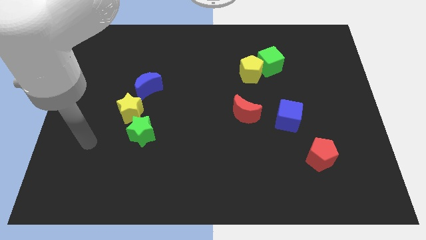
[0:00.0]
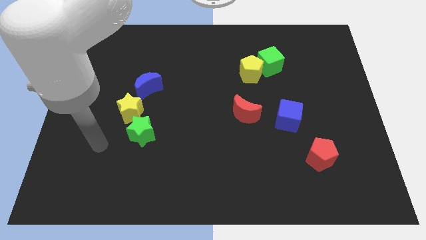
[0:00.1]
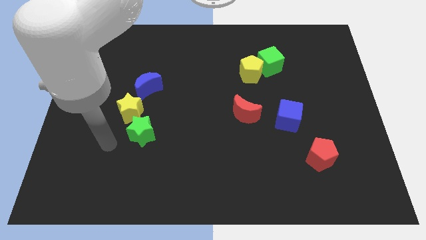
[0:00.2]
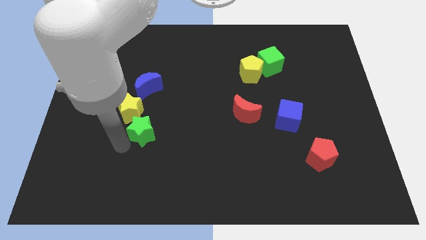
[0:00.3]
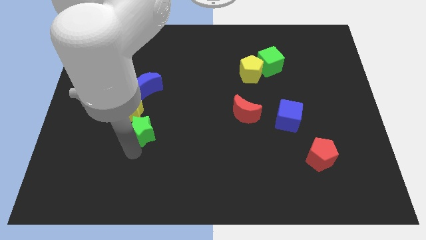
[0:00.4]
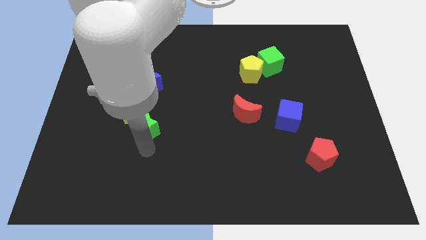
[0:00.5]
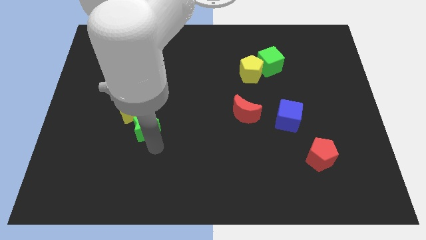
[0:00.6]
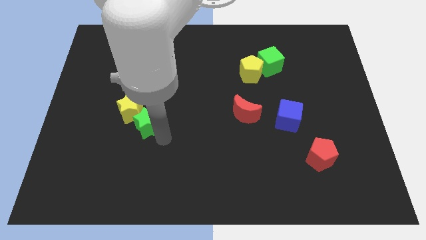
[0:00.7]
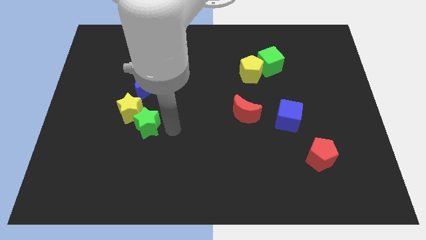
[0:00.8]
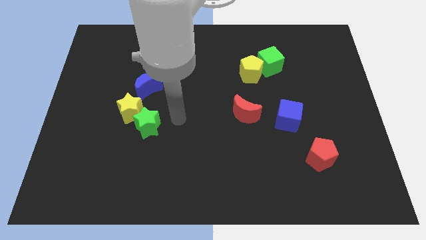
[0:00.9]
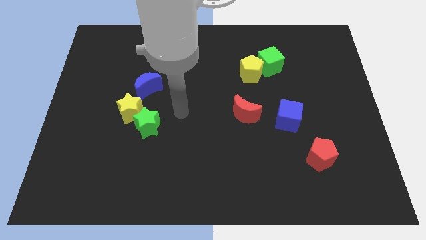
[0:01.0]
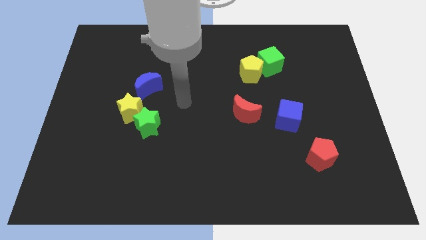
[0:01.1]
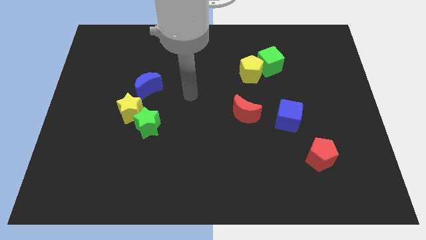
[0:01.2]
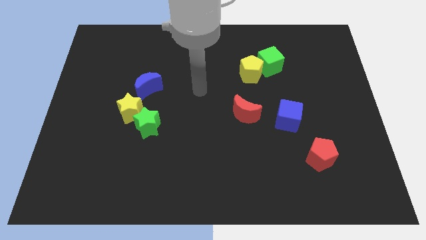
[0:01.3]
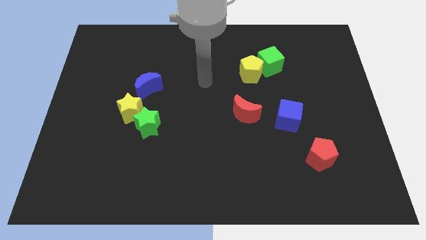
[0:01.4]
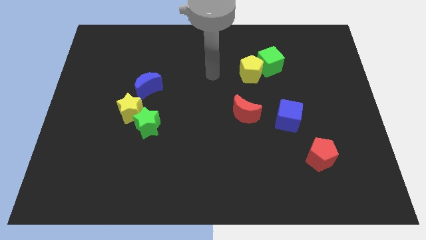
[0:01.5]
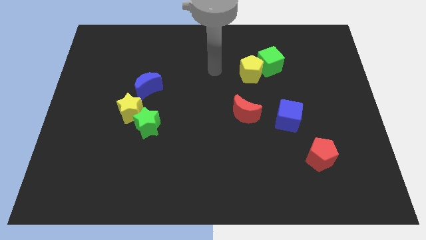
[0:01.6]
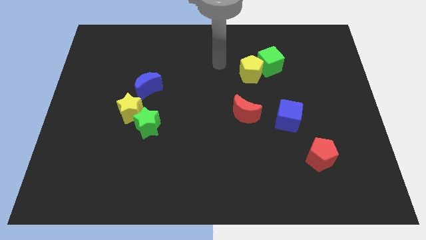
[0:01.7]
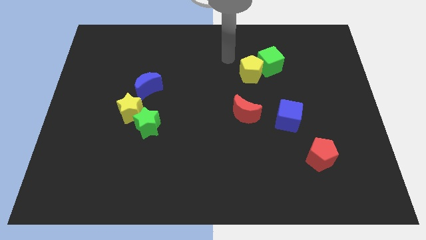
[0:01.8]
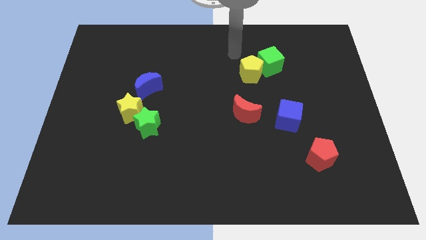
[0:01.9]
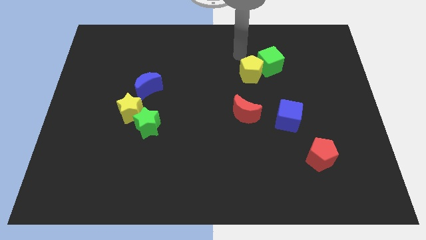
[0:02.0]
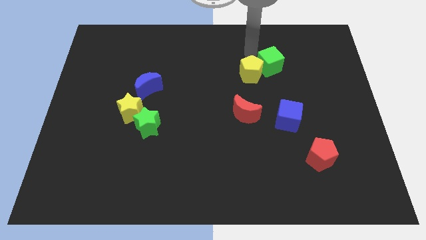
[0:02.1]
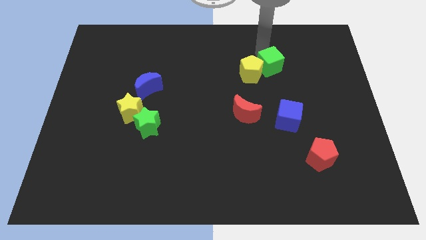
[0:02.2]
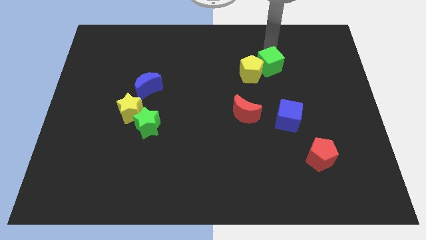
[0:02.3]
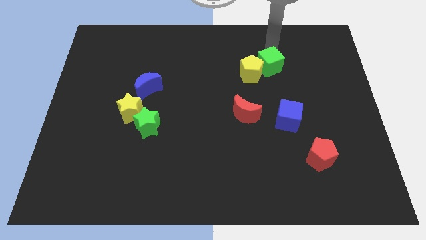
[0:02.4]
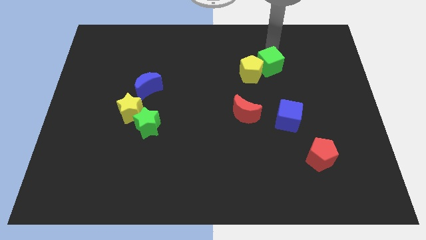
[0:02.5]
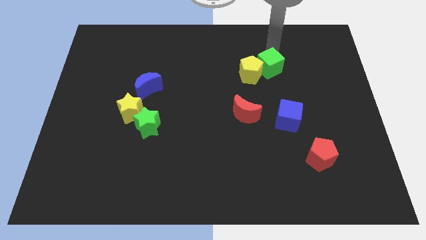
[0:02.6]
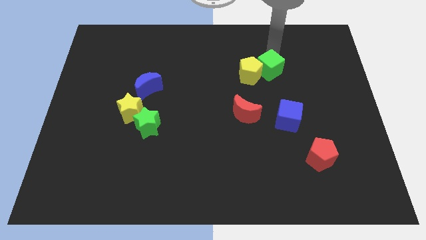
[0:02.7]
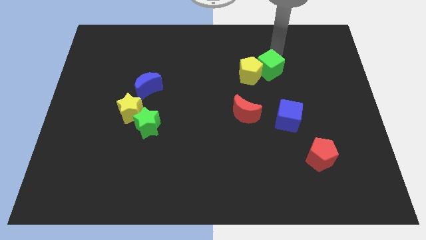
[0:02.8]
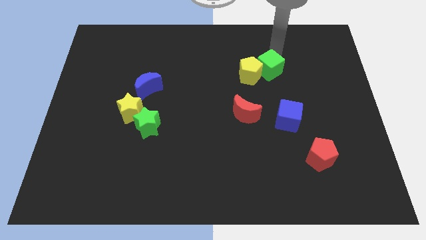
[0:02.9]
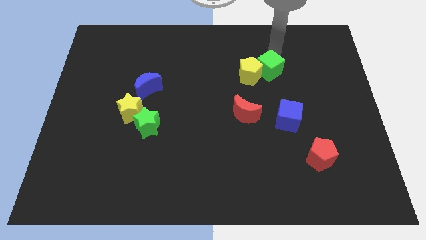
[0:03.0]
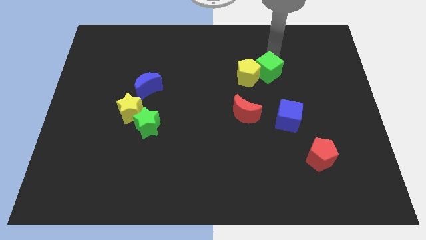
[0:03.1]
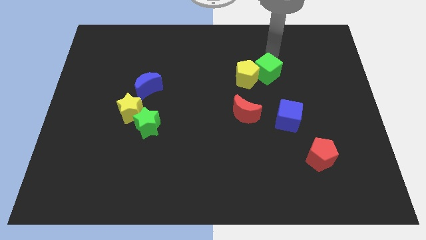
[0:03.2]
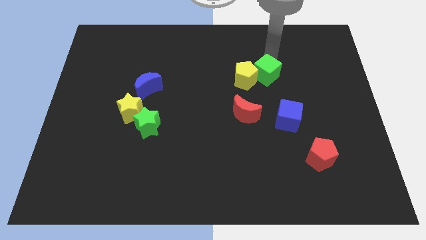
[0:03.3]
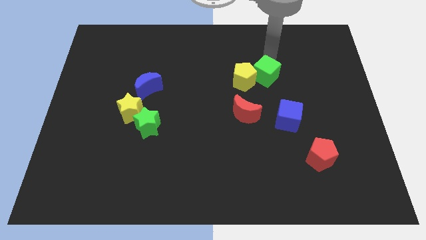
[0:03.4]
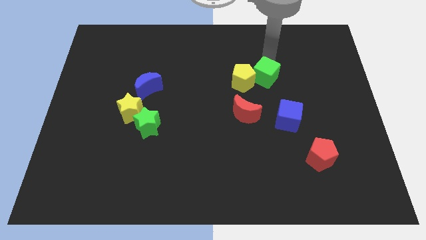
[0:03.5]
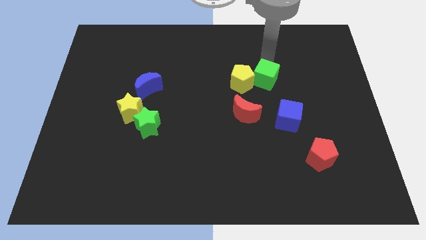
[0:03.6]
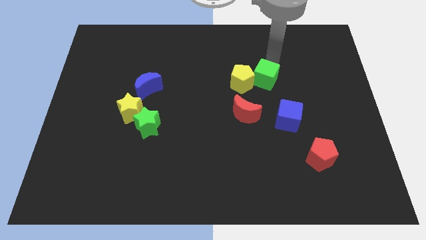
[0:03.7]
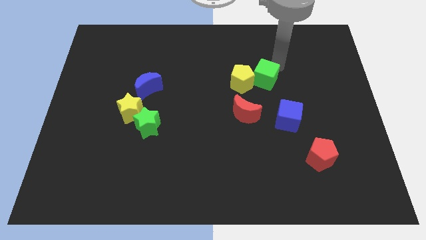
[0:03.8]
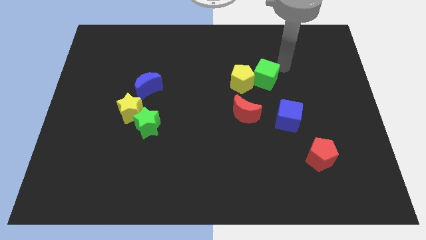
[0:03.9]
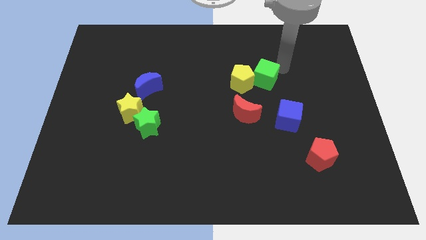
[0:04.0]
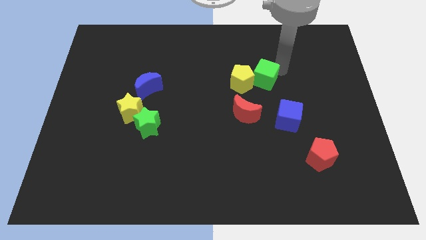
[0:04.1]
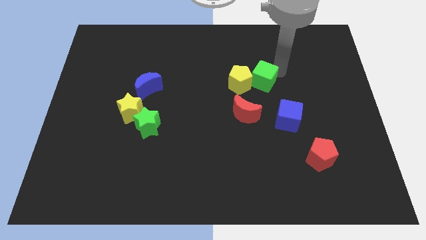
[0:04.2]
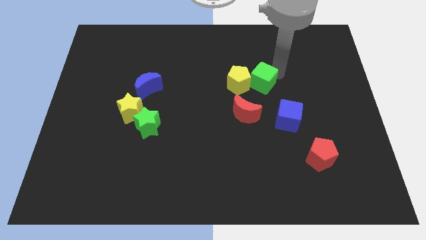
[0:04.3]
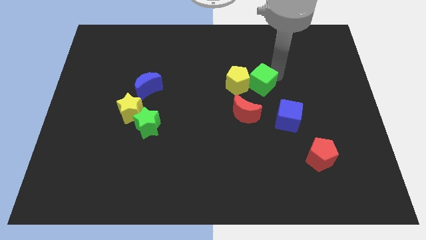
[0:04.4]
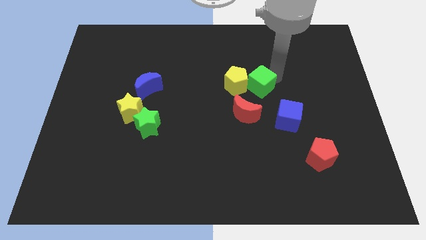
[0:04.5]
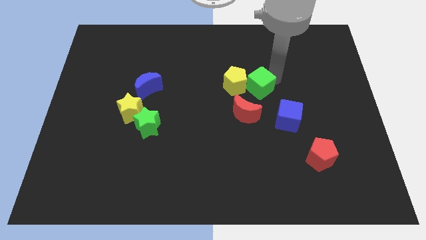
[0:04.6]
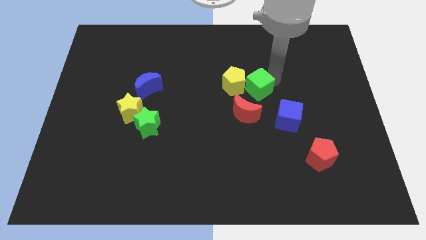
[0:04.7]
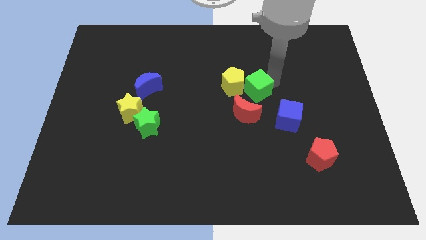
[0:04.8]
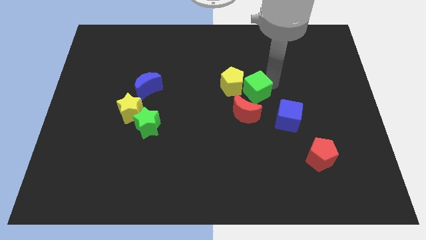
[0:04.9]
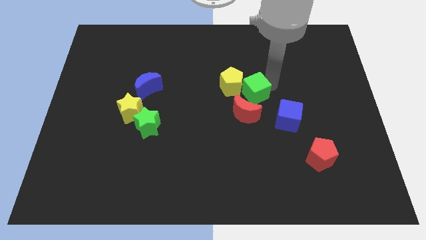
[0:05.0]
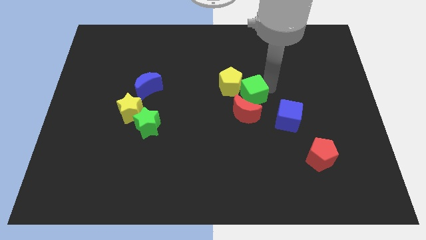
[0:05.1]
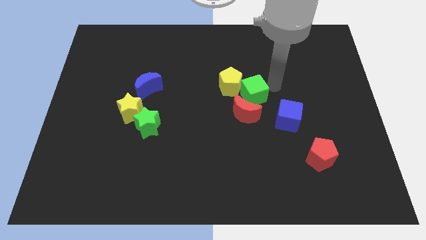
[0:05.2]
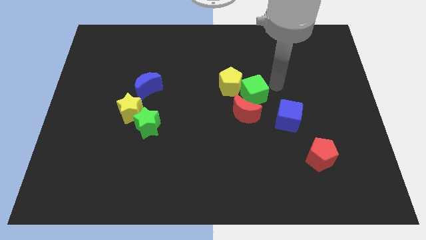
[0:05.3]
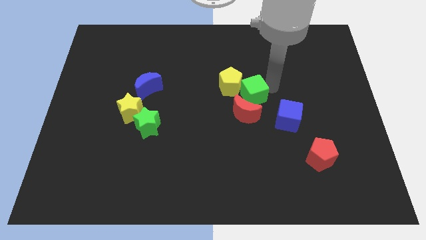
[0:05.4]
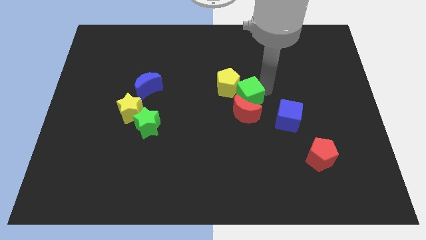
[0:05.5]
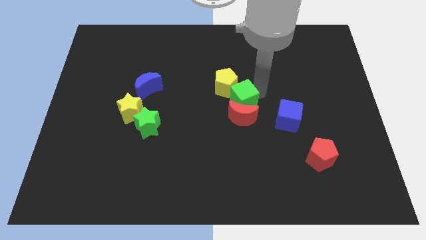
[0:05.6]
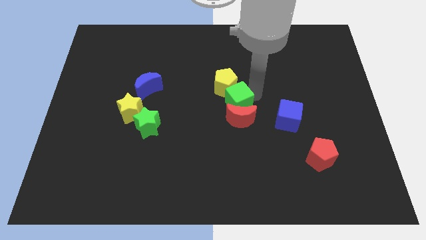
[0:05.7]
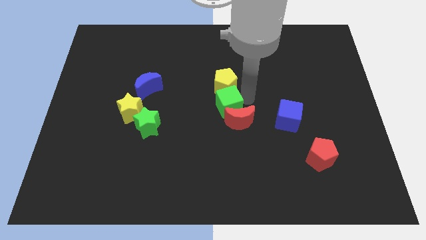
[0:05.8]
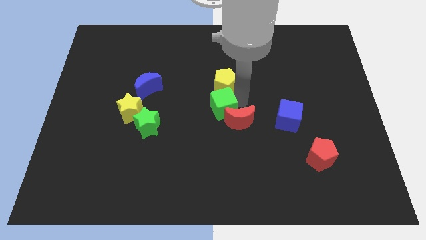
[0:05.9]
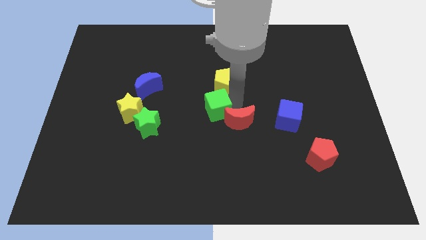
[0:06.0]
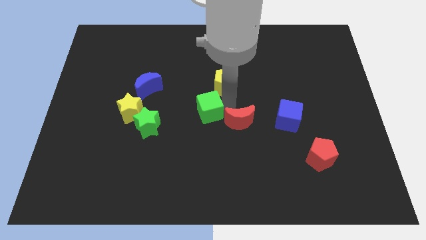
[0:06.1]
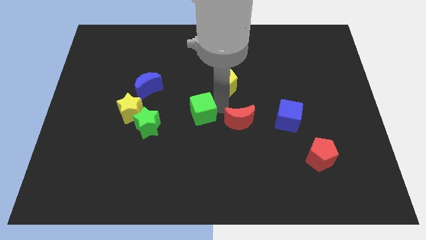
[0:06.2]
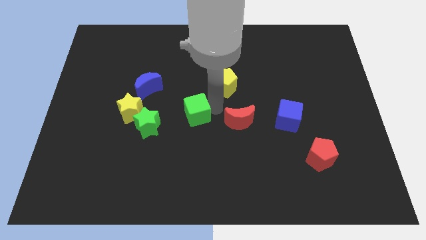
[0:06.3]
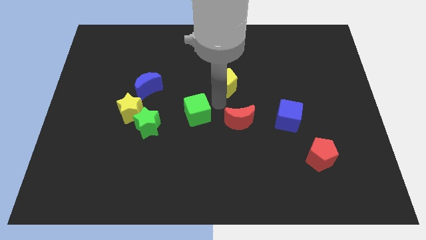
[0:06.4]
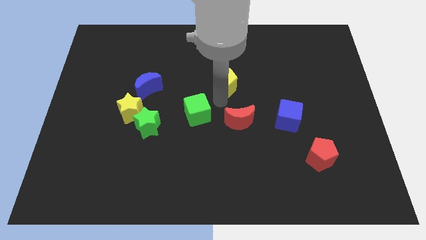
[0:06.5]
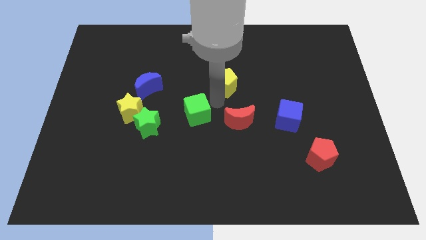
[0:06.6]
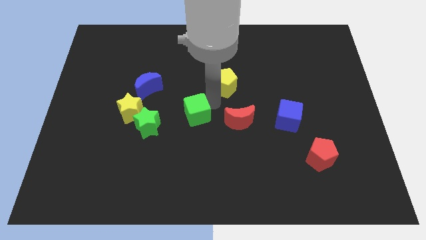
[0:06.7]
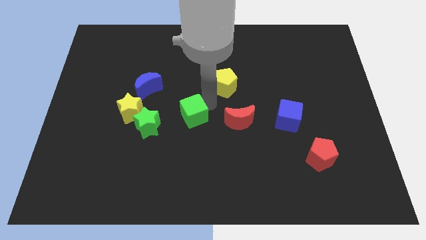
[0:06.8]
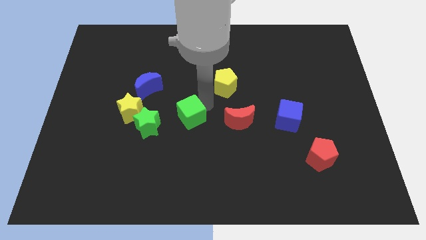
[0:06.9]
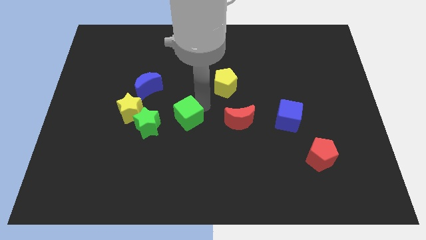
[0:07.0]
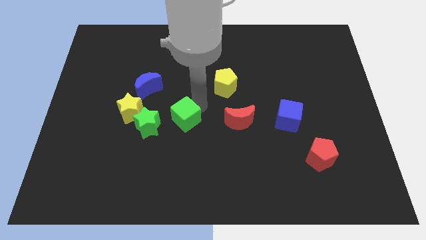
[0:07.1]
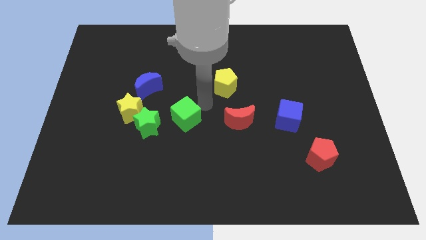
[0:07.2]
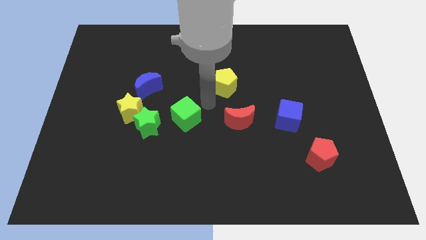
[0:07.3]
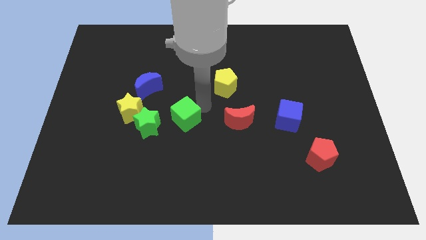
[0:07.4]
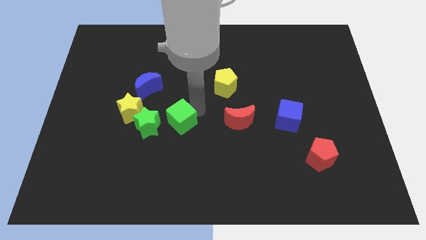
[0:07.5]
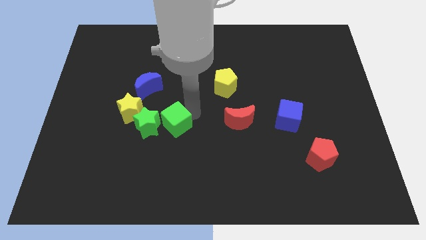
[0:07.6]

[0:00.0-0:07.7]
push the green cube next to the green star

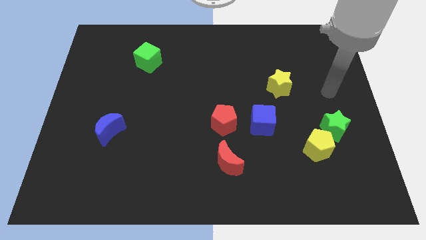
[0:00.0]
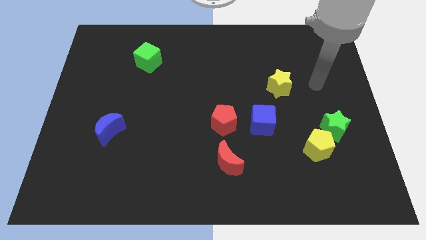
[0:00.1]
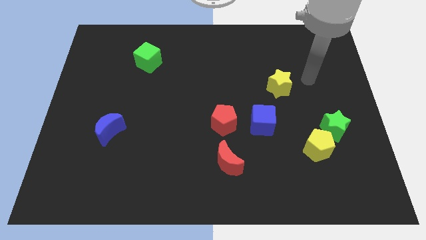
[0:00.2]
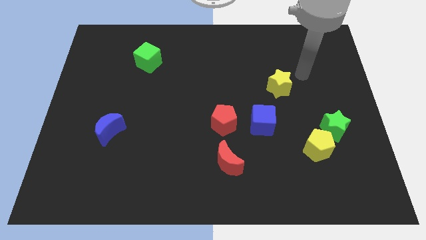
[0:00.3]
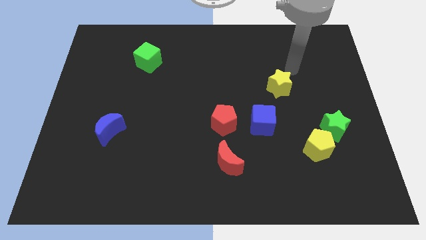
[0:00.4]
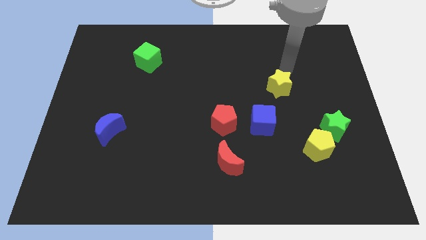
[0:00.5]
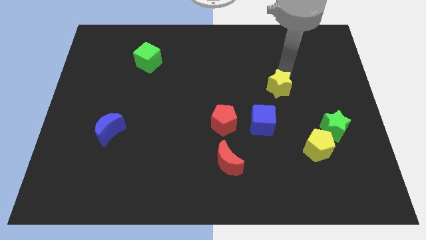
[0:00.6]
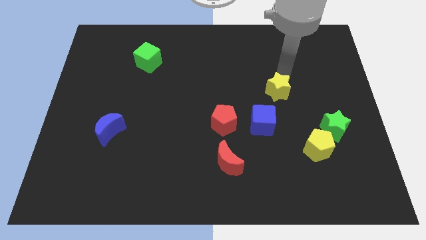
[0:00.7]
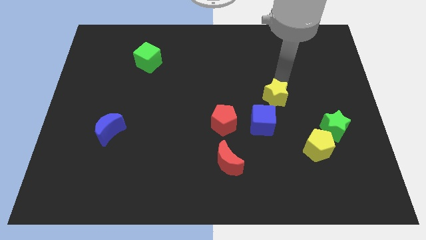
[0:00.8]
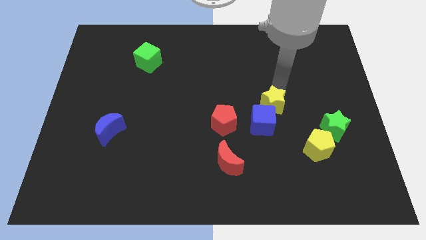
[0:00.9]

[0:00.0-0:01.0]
slide the yellow star to the blue cube
